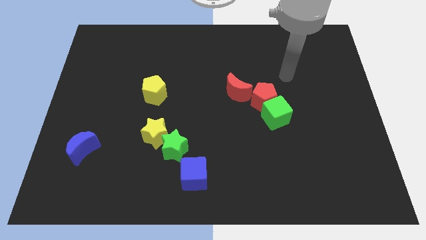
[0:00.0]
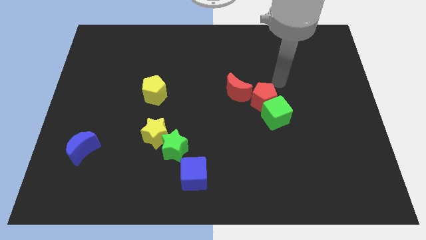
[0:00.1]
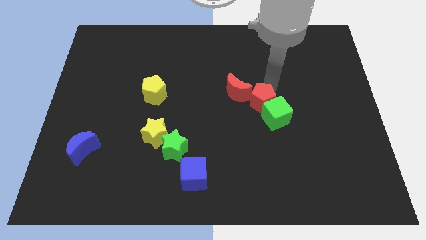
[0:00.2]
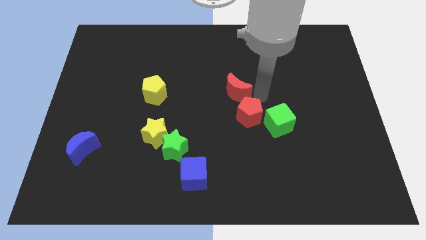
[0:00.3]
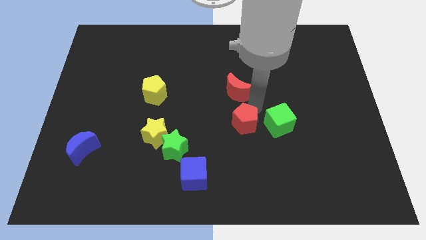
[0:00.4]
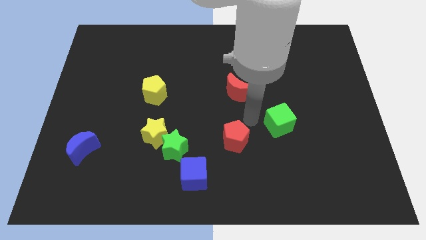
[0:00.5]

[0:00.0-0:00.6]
separate the green cube from the red pentagon

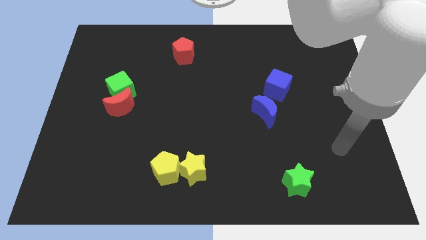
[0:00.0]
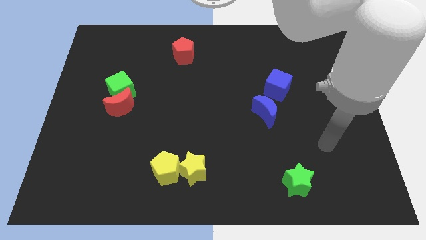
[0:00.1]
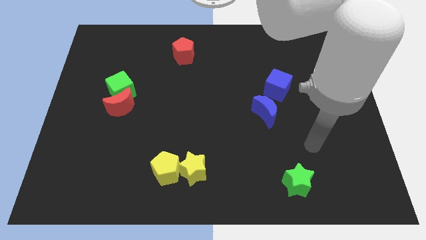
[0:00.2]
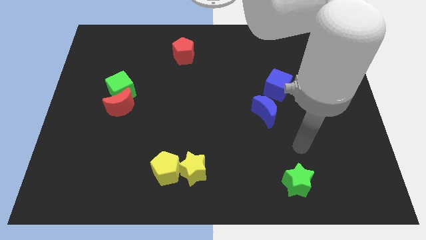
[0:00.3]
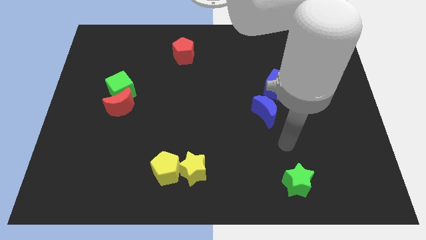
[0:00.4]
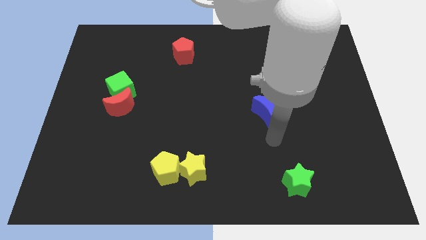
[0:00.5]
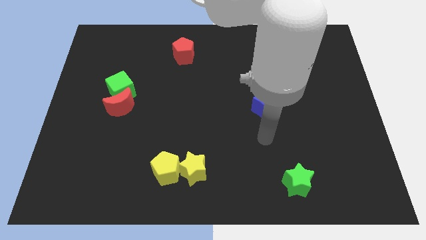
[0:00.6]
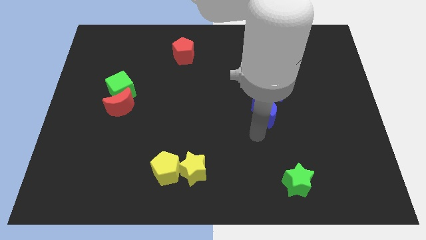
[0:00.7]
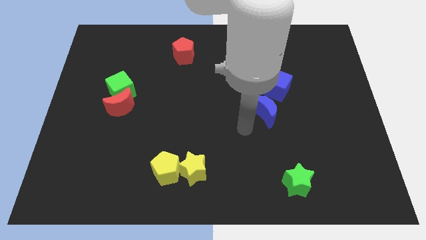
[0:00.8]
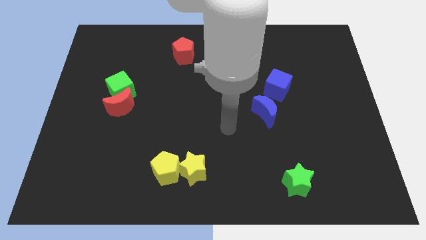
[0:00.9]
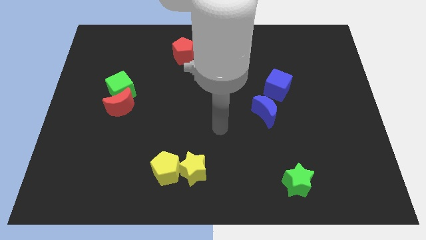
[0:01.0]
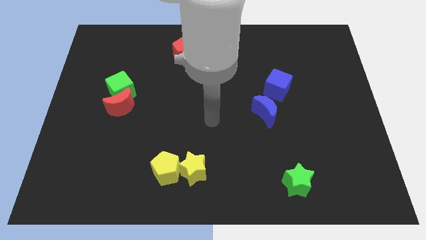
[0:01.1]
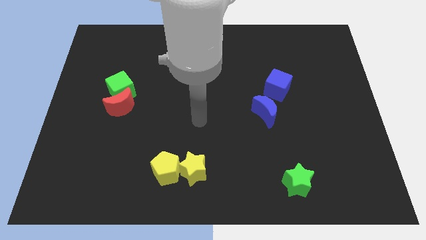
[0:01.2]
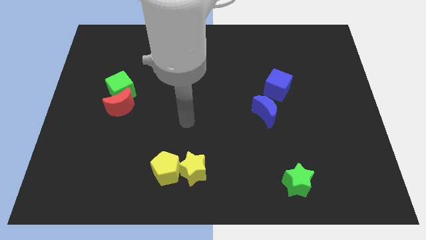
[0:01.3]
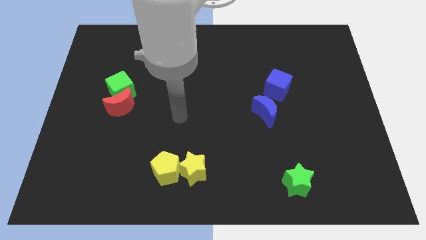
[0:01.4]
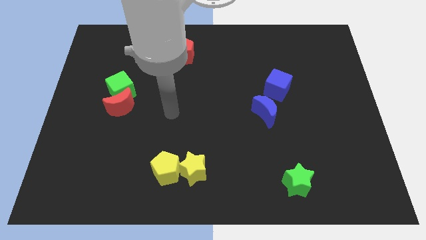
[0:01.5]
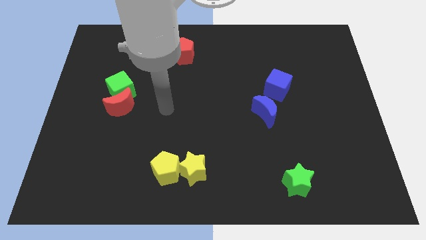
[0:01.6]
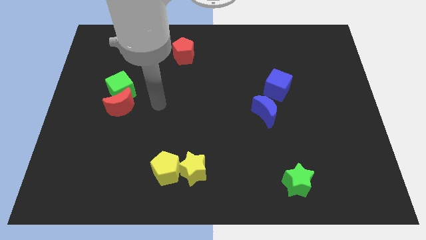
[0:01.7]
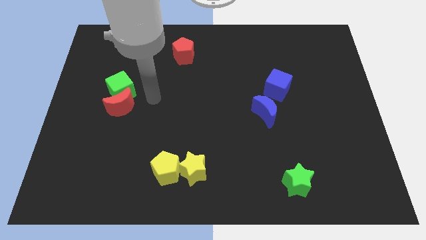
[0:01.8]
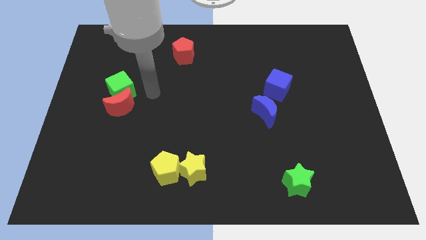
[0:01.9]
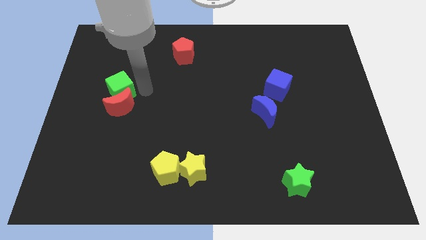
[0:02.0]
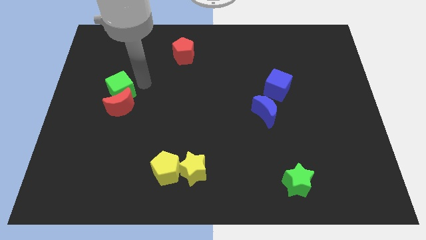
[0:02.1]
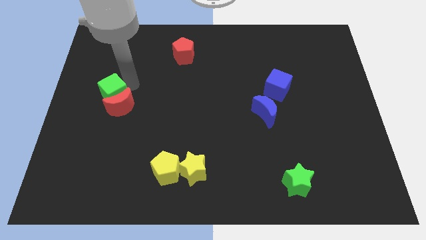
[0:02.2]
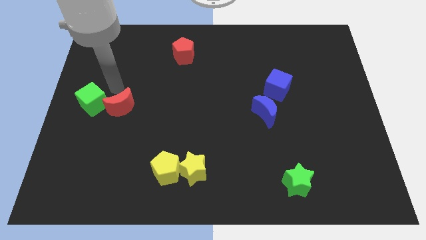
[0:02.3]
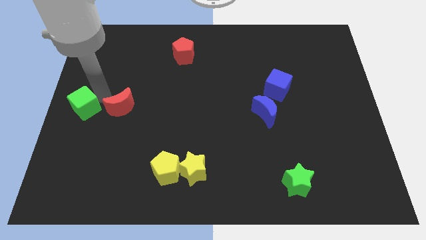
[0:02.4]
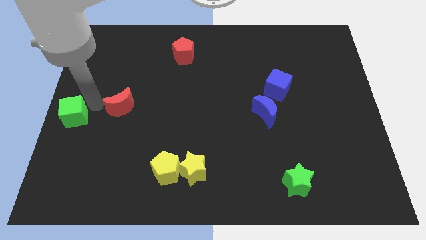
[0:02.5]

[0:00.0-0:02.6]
move the red moon away from the green cube

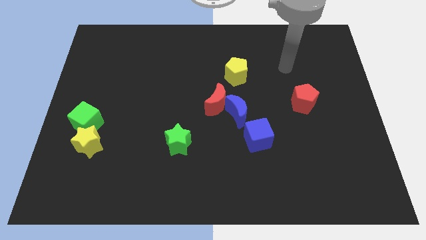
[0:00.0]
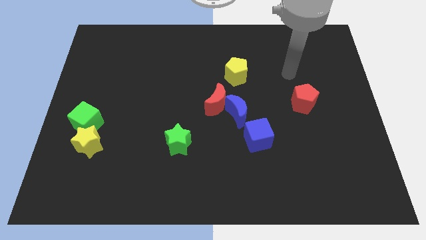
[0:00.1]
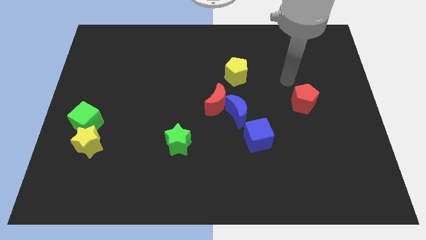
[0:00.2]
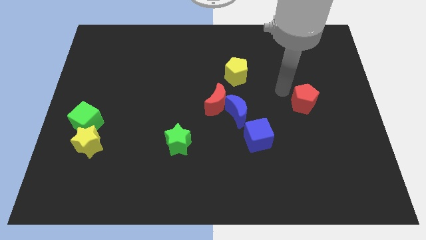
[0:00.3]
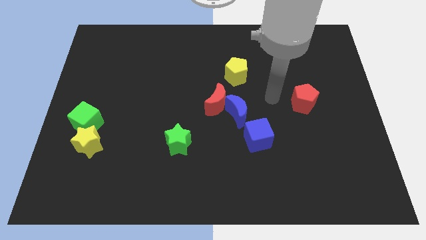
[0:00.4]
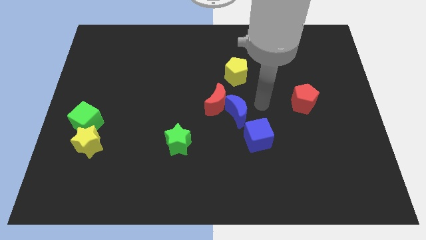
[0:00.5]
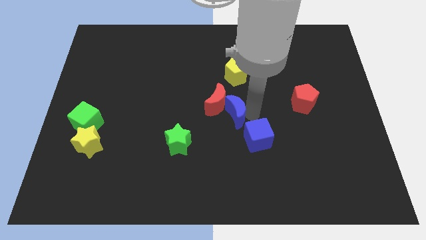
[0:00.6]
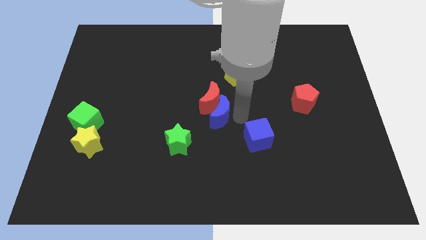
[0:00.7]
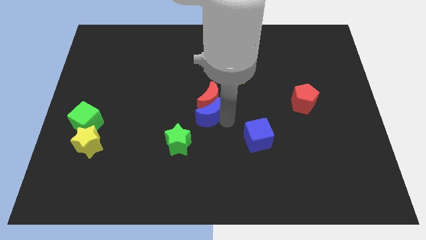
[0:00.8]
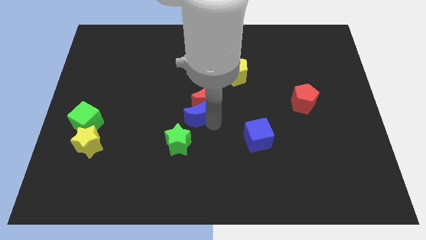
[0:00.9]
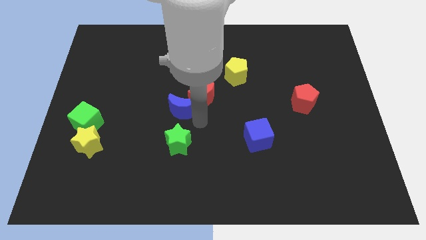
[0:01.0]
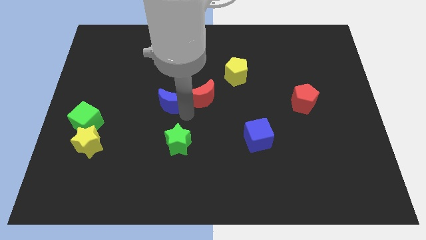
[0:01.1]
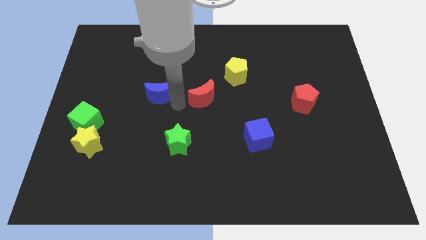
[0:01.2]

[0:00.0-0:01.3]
pull the red moon apart from the blue moon

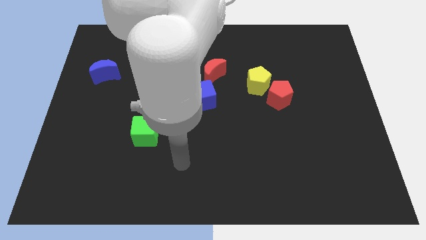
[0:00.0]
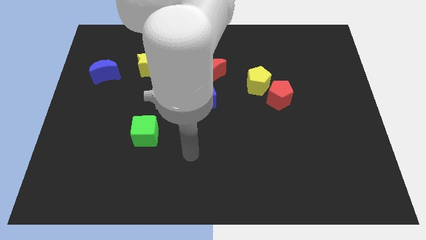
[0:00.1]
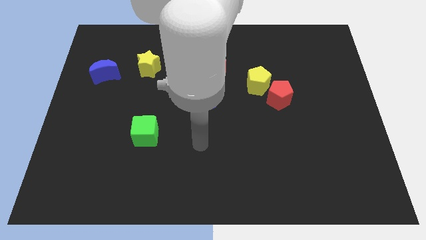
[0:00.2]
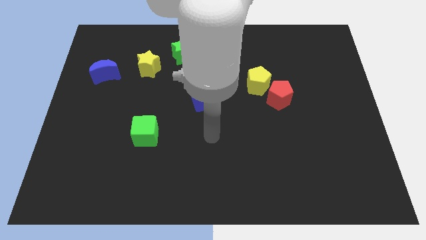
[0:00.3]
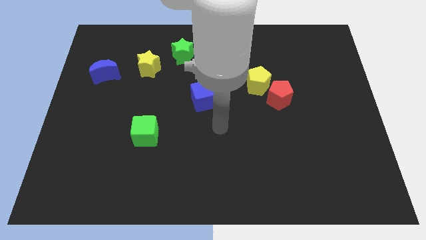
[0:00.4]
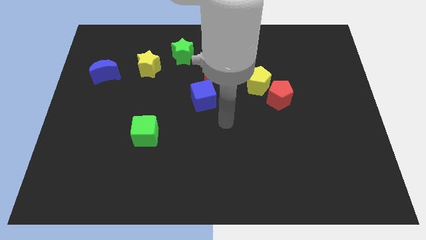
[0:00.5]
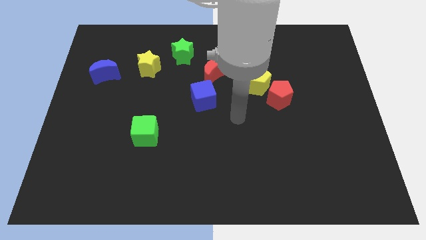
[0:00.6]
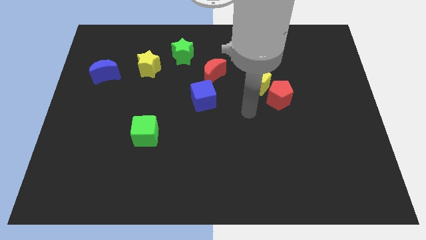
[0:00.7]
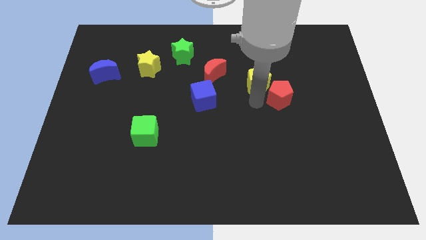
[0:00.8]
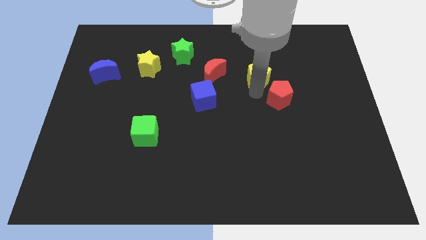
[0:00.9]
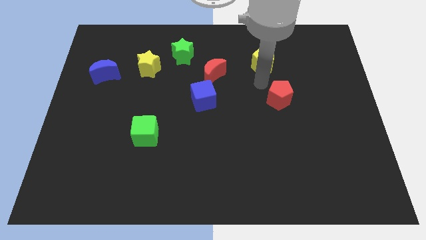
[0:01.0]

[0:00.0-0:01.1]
move the red pentagon away from the yellow pentagon

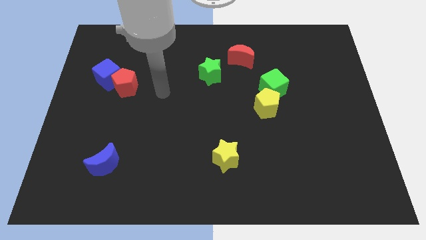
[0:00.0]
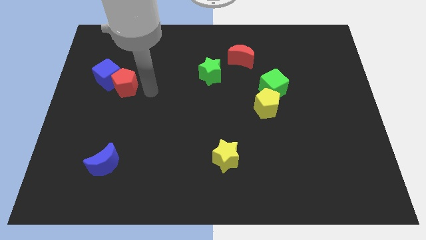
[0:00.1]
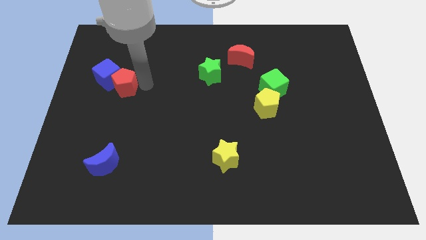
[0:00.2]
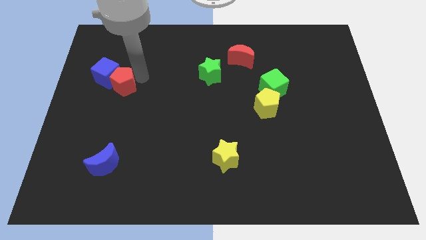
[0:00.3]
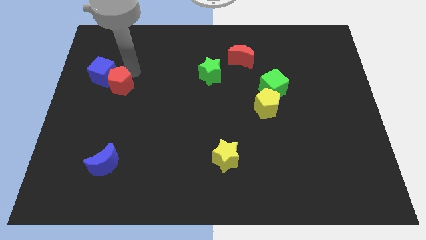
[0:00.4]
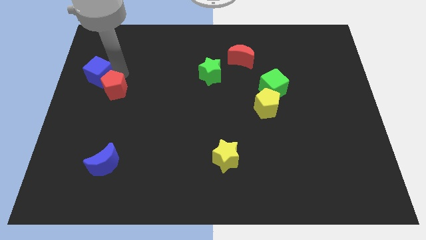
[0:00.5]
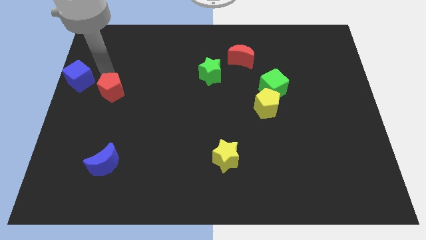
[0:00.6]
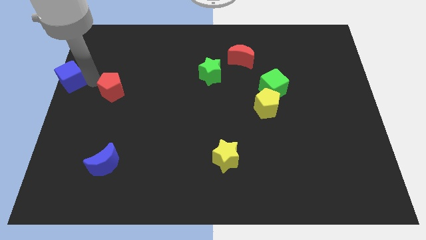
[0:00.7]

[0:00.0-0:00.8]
pull the red pentagon apart from the blue cube

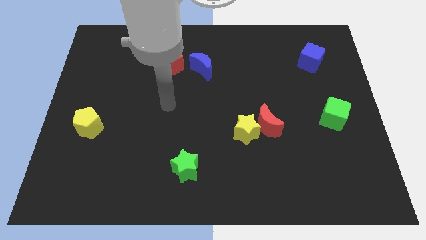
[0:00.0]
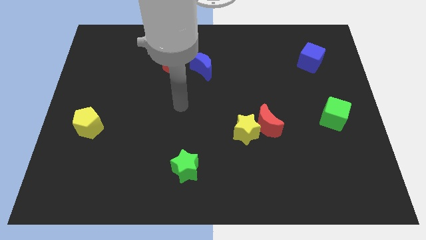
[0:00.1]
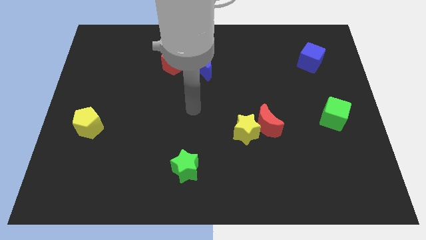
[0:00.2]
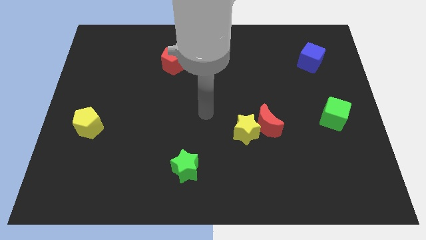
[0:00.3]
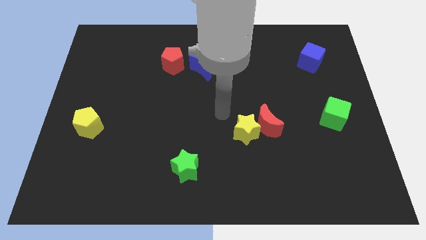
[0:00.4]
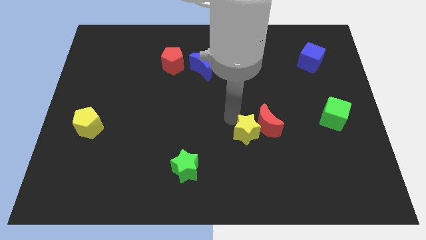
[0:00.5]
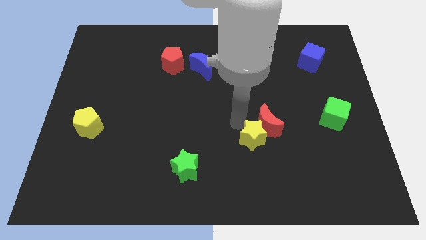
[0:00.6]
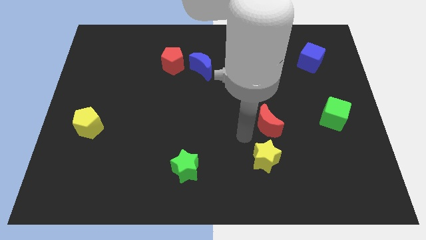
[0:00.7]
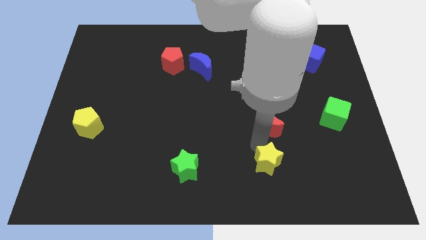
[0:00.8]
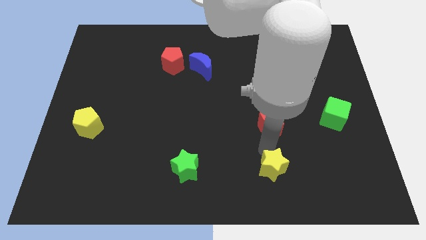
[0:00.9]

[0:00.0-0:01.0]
move the red moon away from the yellow star

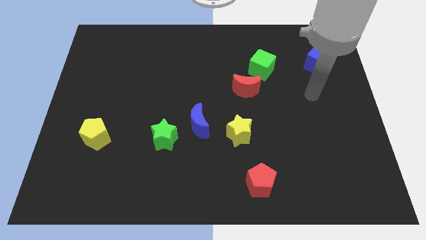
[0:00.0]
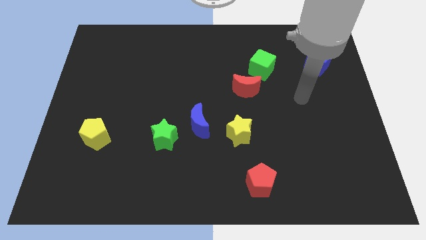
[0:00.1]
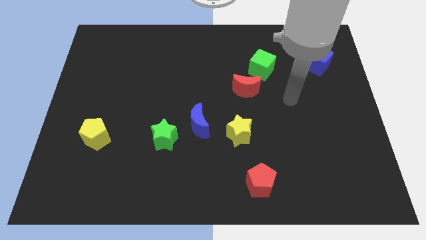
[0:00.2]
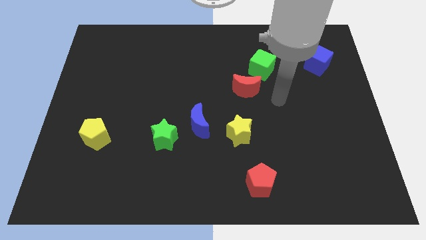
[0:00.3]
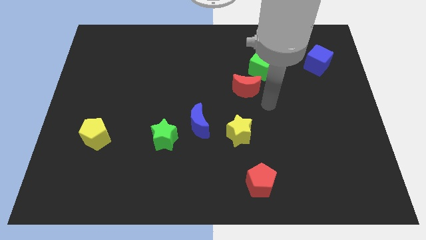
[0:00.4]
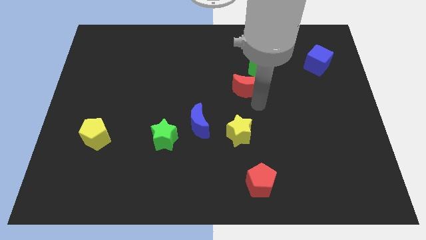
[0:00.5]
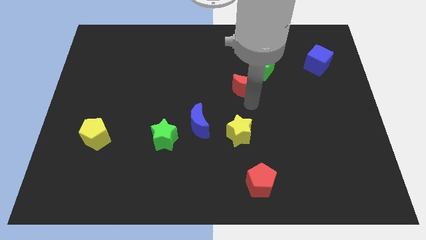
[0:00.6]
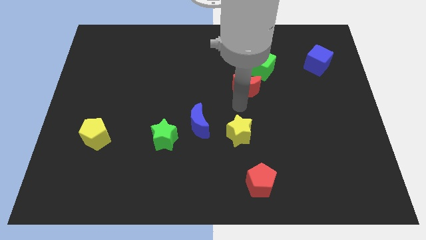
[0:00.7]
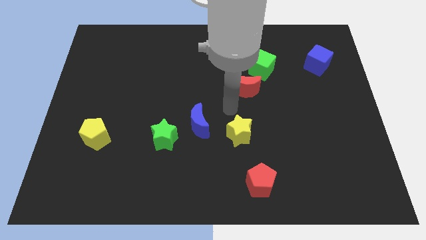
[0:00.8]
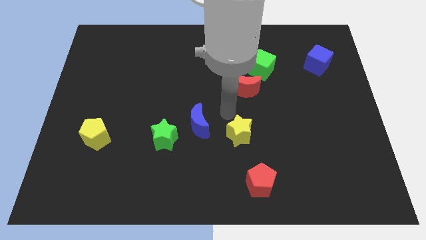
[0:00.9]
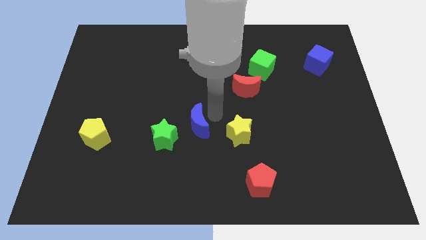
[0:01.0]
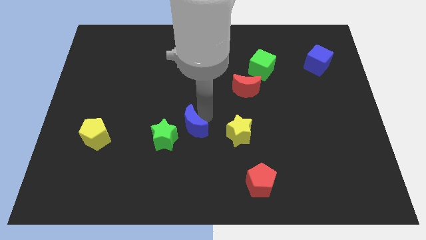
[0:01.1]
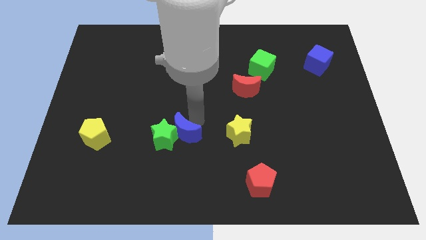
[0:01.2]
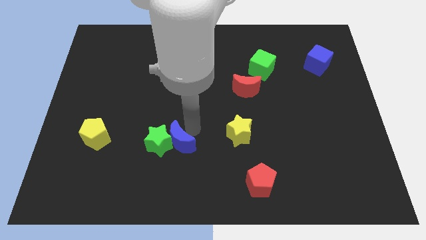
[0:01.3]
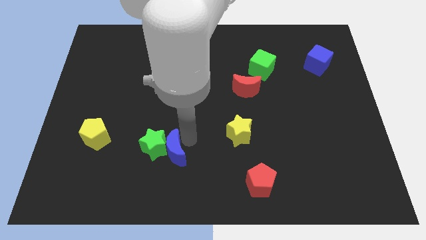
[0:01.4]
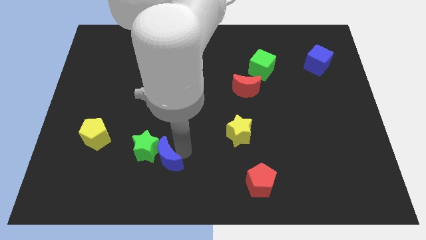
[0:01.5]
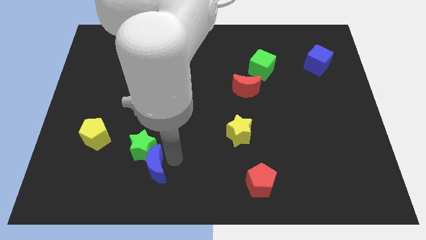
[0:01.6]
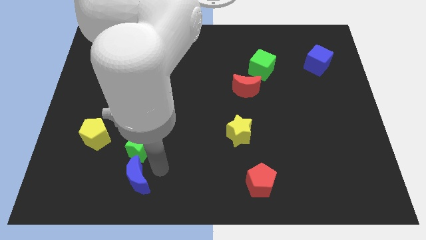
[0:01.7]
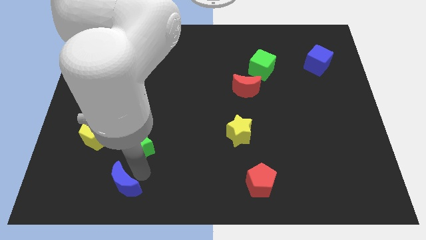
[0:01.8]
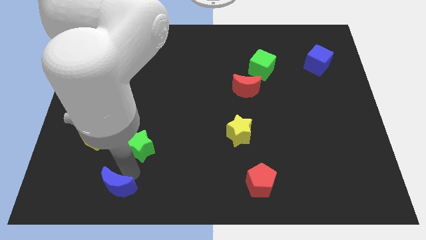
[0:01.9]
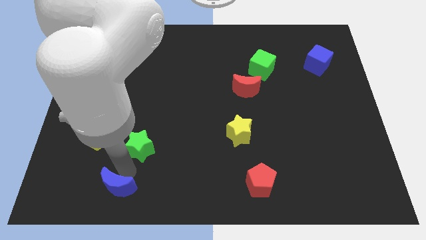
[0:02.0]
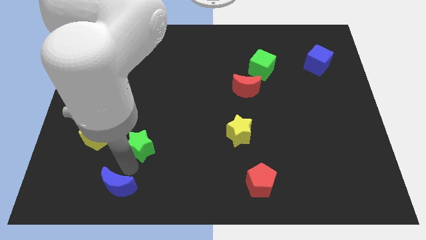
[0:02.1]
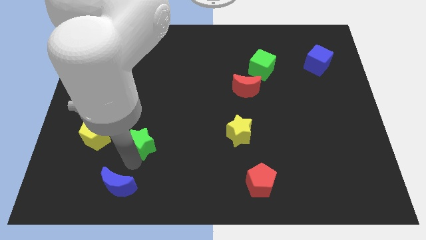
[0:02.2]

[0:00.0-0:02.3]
pull the green star apart from the blue moon
